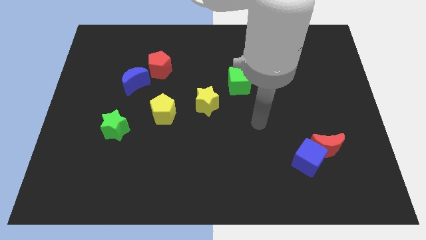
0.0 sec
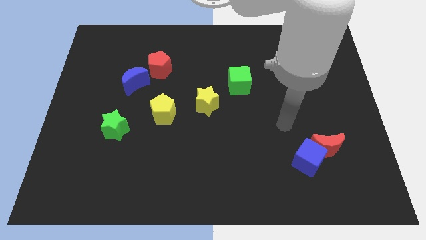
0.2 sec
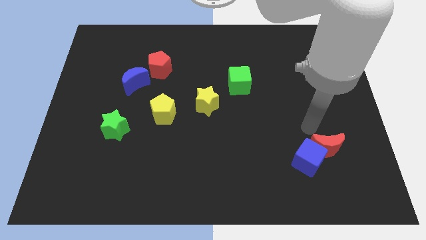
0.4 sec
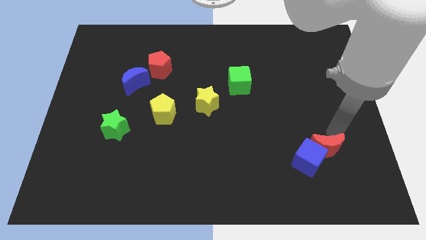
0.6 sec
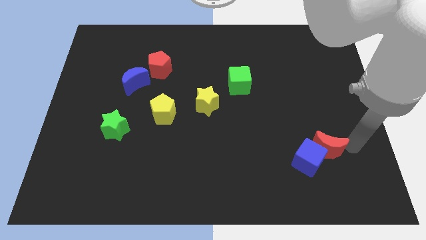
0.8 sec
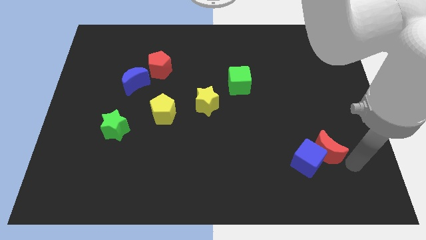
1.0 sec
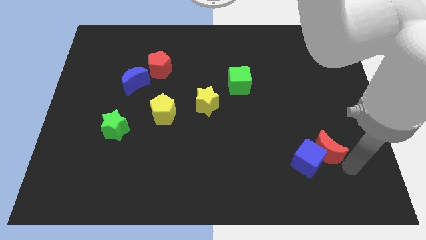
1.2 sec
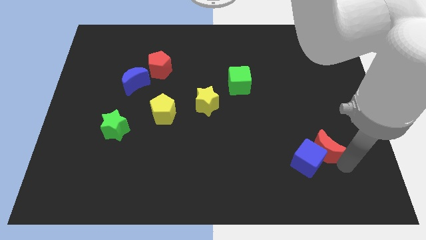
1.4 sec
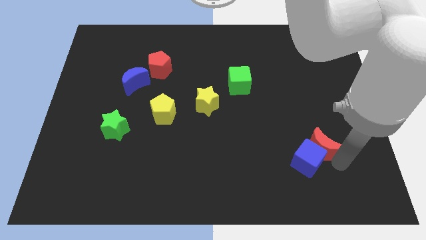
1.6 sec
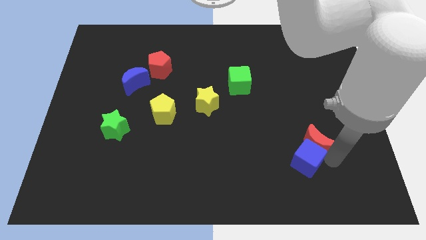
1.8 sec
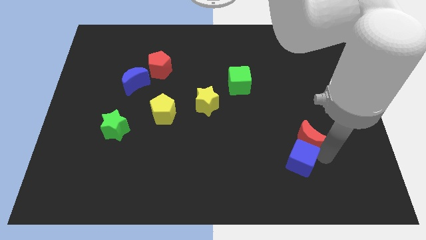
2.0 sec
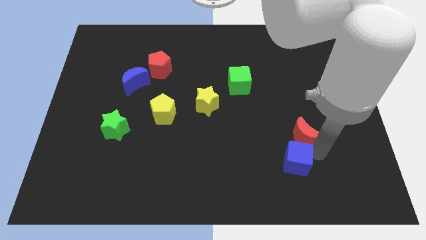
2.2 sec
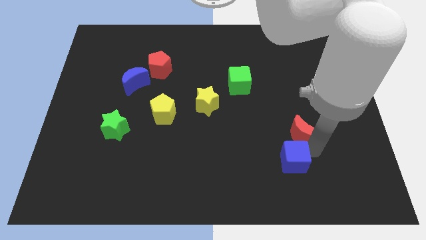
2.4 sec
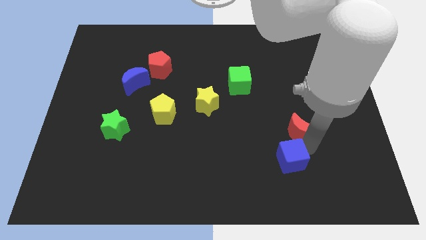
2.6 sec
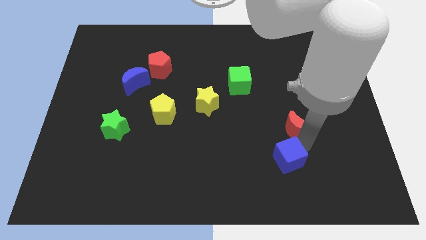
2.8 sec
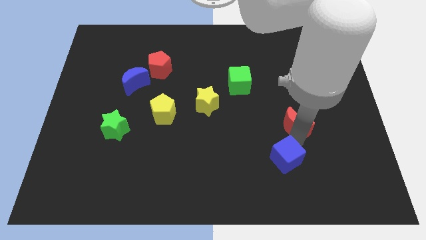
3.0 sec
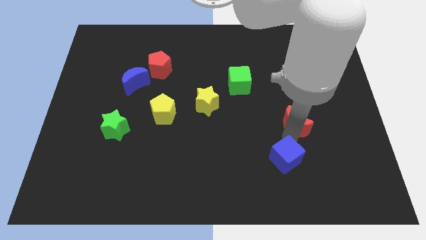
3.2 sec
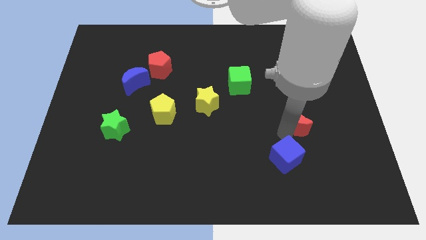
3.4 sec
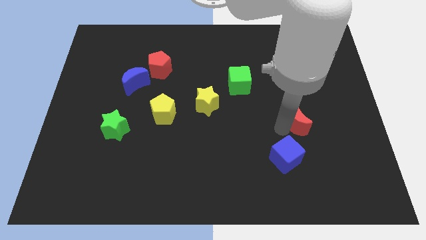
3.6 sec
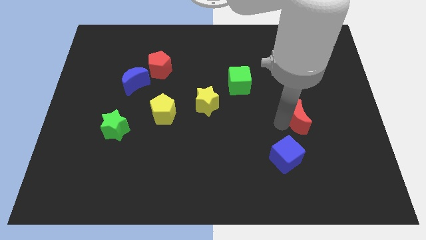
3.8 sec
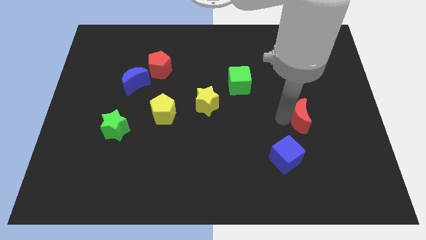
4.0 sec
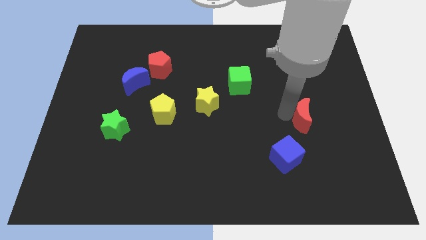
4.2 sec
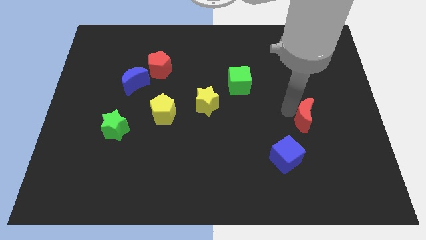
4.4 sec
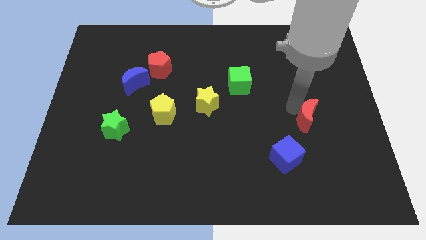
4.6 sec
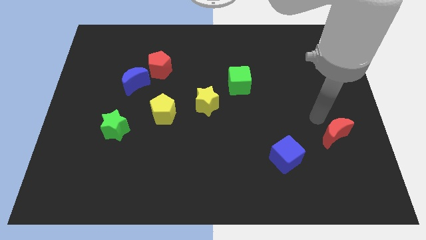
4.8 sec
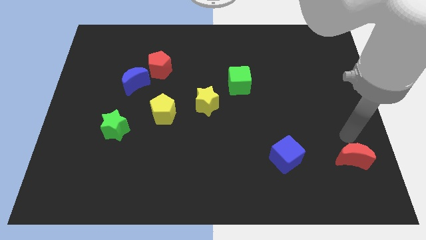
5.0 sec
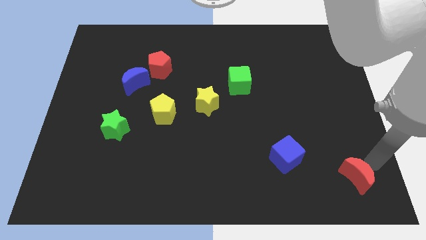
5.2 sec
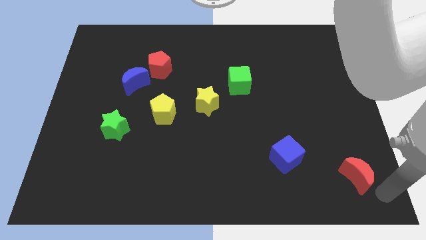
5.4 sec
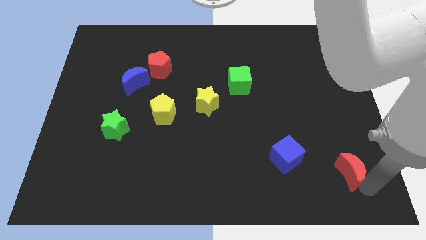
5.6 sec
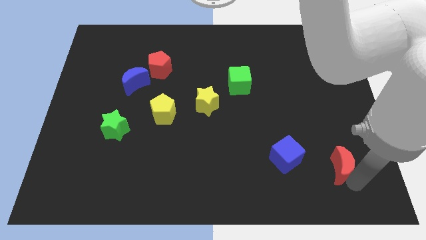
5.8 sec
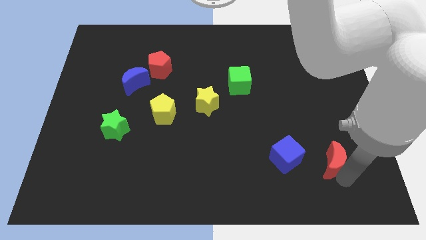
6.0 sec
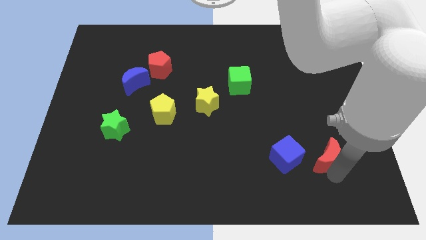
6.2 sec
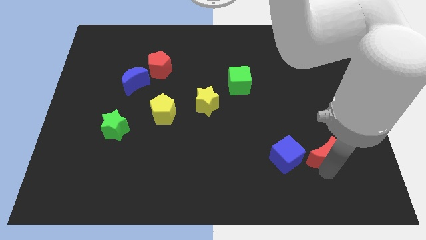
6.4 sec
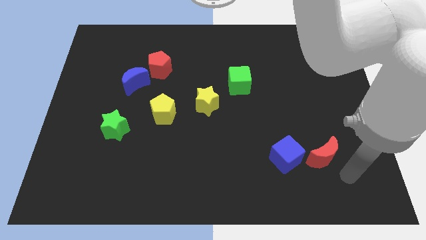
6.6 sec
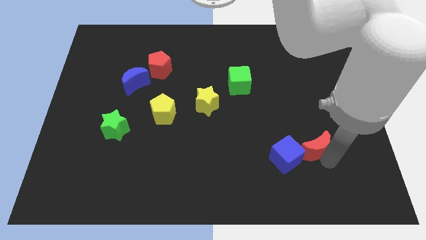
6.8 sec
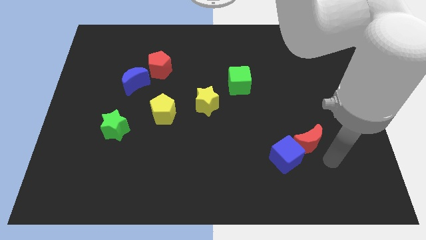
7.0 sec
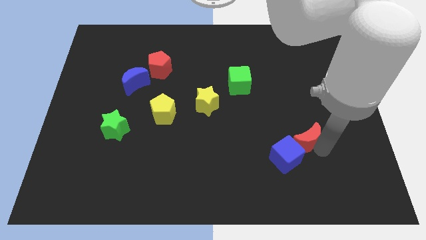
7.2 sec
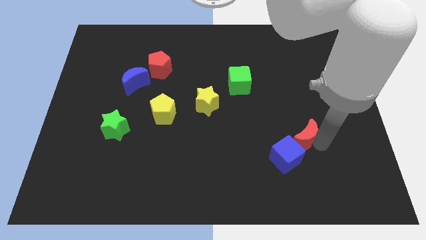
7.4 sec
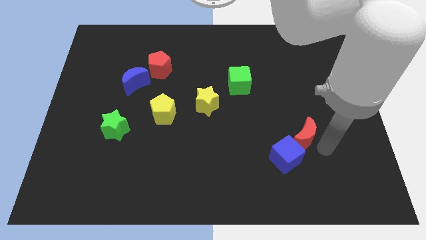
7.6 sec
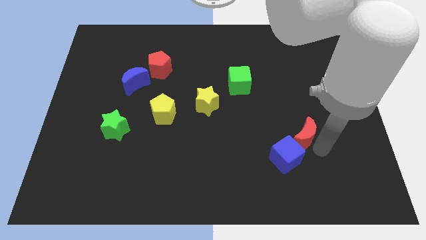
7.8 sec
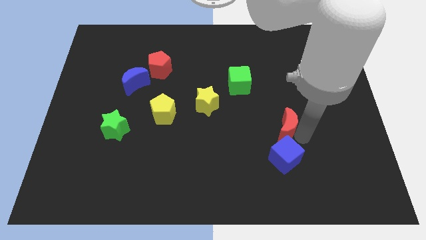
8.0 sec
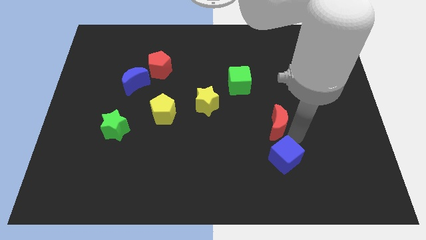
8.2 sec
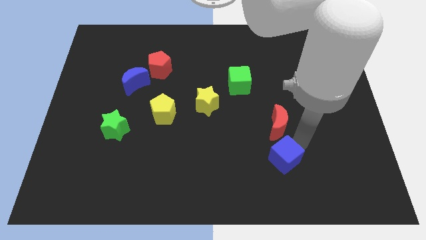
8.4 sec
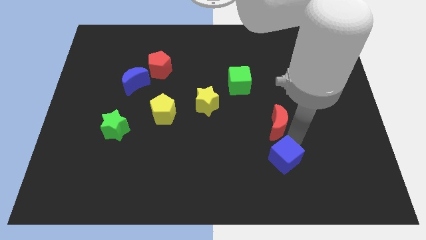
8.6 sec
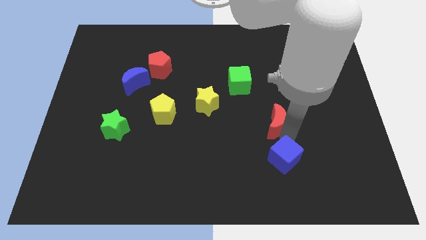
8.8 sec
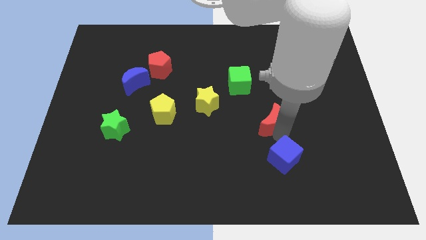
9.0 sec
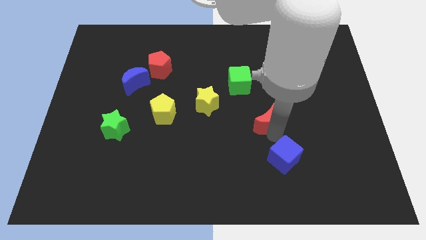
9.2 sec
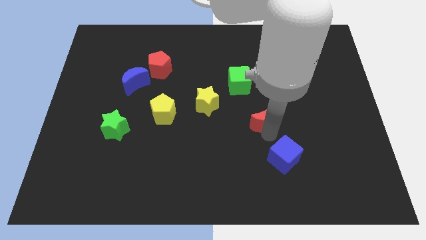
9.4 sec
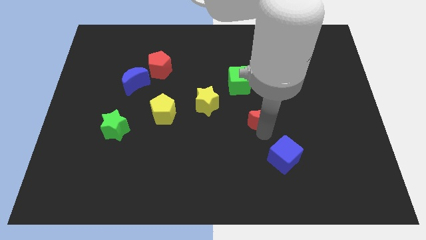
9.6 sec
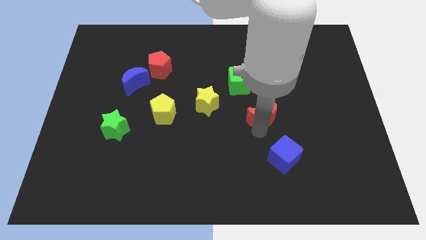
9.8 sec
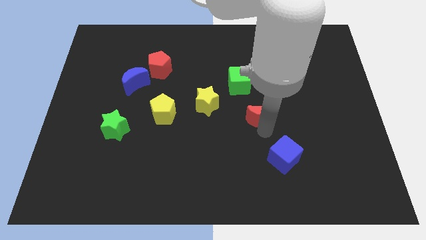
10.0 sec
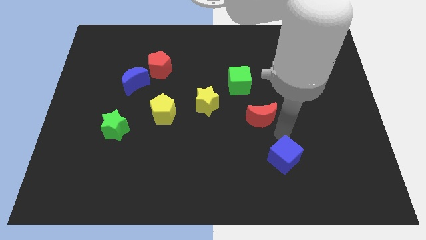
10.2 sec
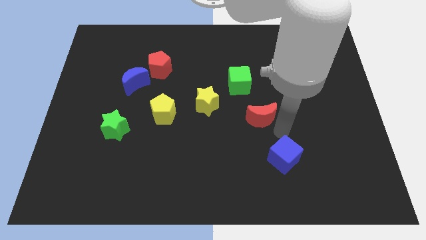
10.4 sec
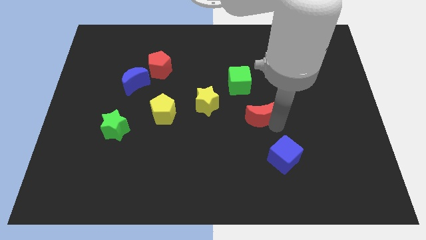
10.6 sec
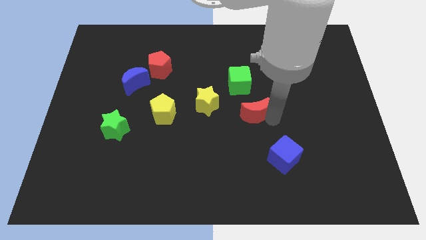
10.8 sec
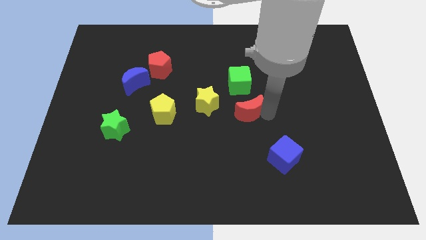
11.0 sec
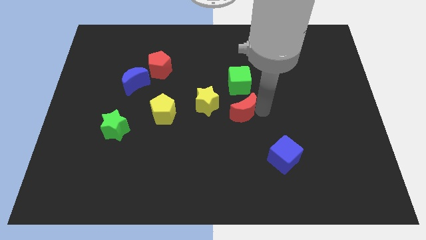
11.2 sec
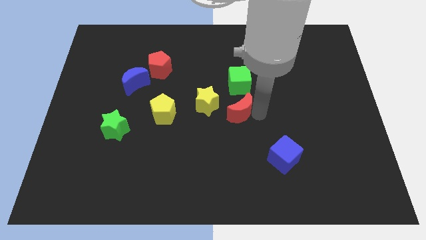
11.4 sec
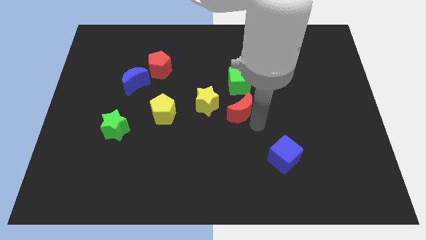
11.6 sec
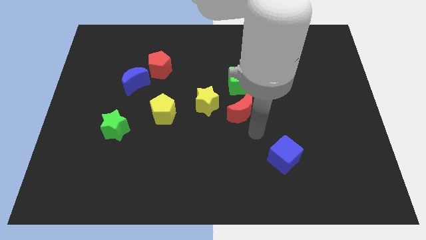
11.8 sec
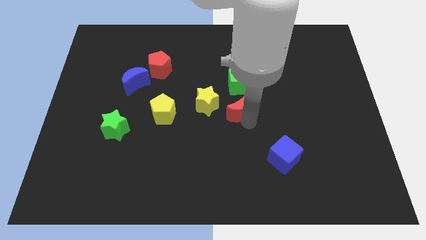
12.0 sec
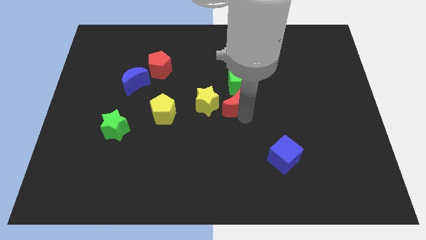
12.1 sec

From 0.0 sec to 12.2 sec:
slide the red moon upwards and left

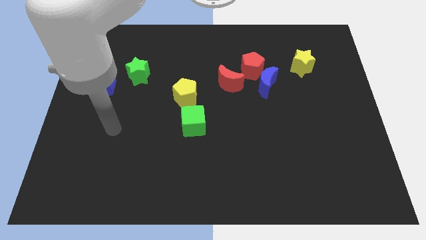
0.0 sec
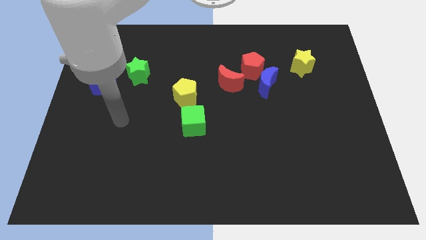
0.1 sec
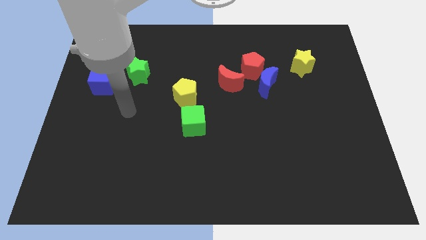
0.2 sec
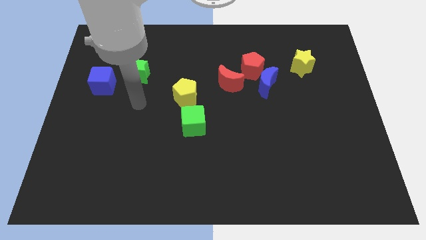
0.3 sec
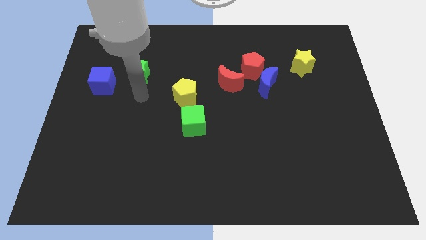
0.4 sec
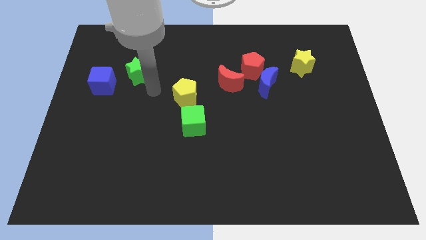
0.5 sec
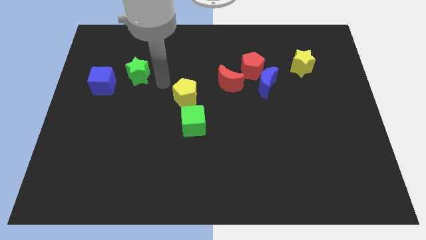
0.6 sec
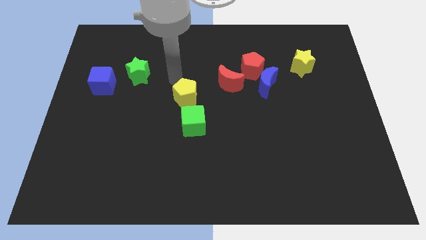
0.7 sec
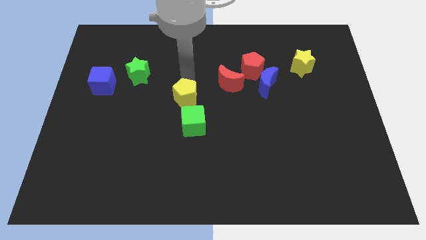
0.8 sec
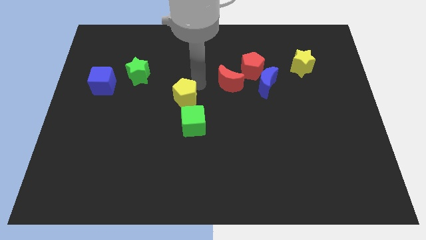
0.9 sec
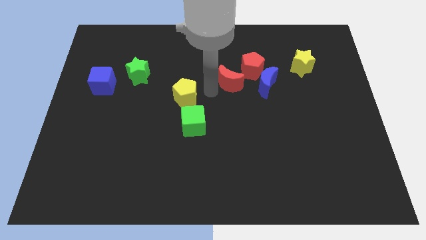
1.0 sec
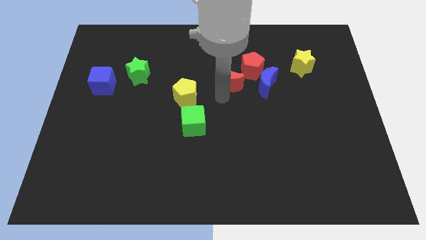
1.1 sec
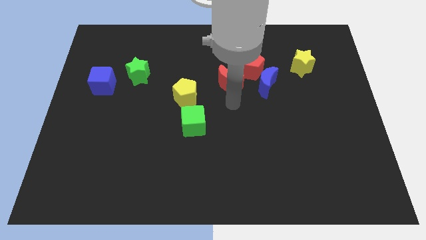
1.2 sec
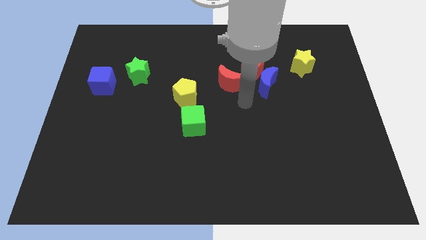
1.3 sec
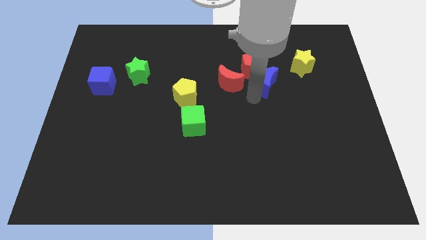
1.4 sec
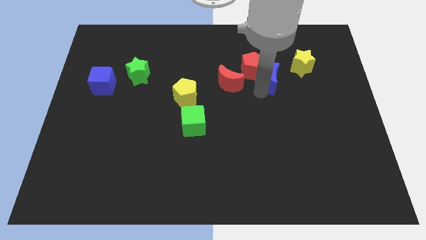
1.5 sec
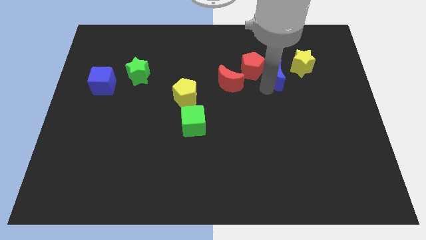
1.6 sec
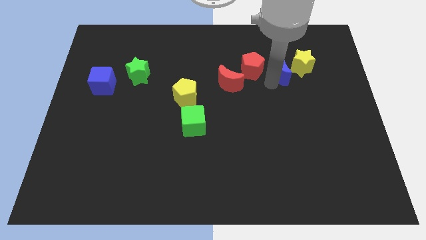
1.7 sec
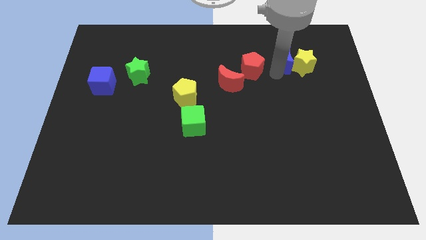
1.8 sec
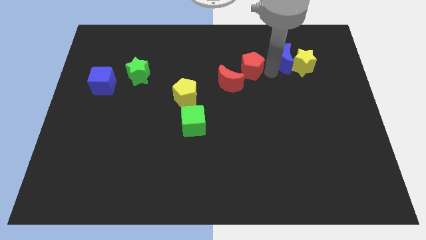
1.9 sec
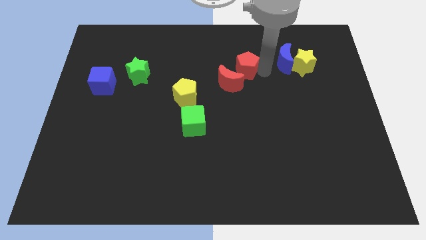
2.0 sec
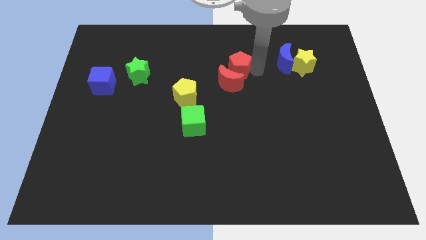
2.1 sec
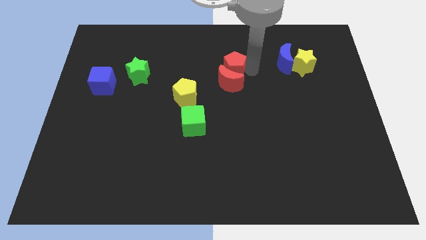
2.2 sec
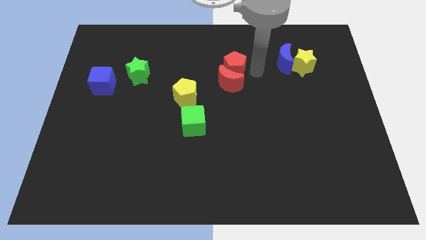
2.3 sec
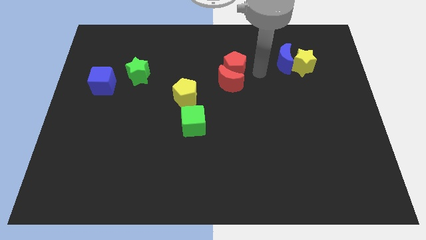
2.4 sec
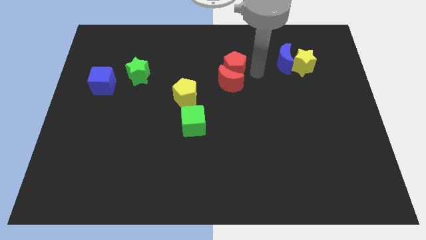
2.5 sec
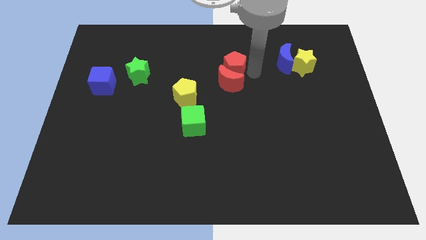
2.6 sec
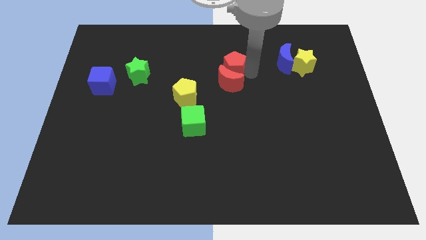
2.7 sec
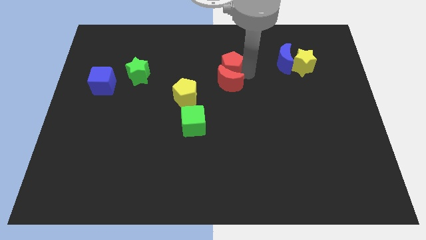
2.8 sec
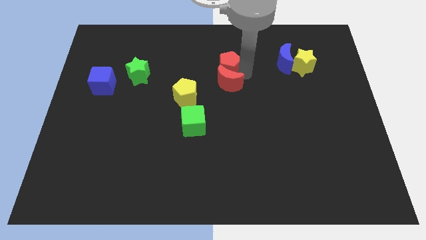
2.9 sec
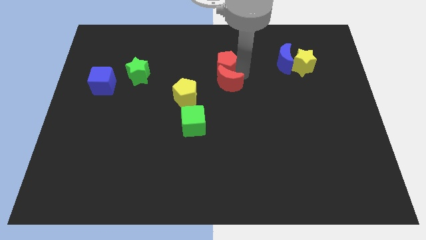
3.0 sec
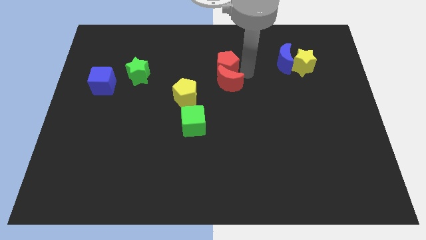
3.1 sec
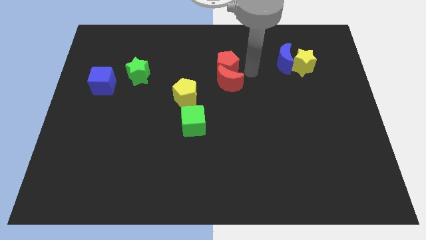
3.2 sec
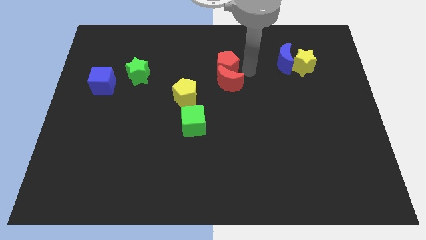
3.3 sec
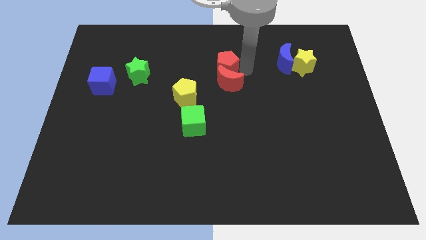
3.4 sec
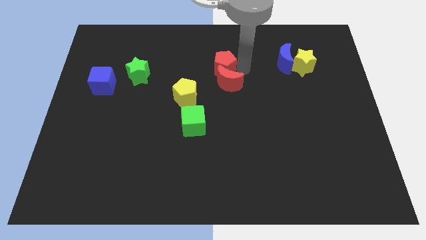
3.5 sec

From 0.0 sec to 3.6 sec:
slightly push the red pentagon left
